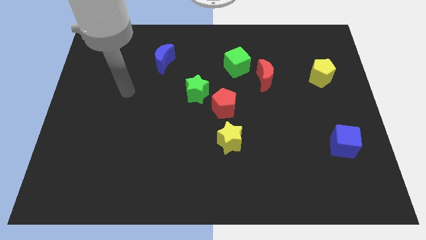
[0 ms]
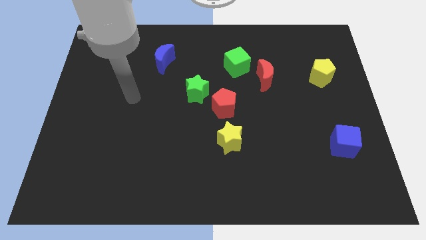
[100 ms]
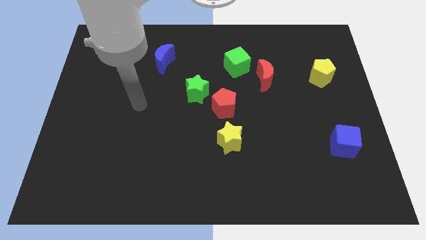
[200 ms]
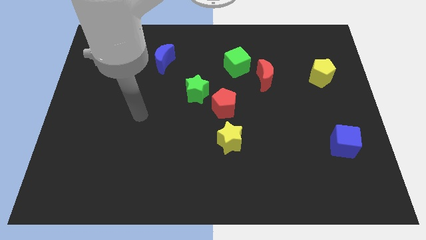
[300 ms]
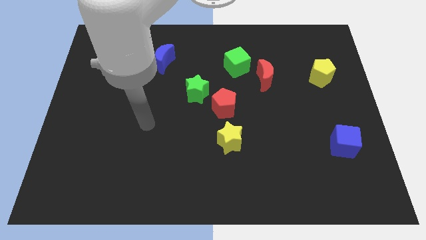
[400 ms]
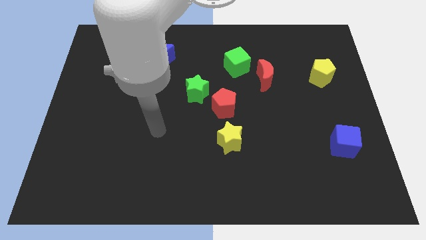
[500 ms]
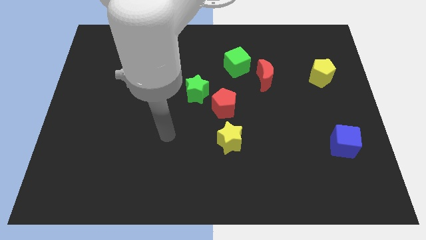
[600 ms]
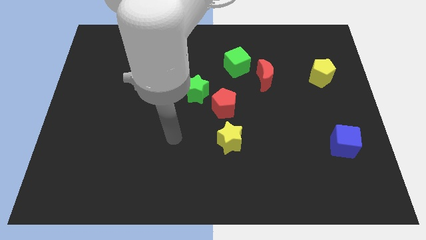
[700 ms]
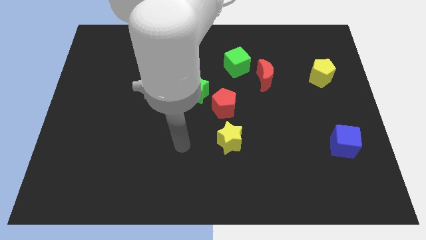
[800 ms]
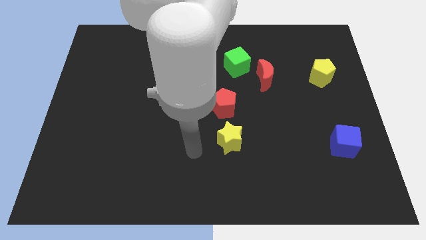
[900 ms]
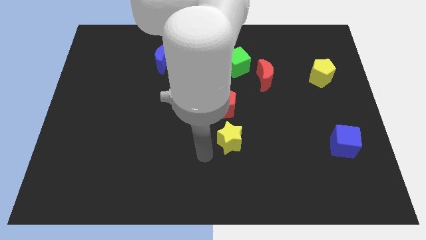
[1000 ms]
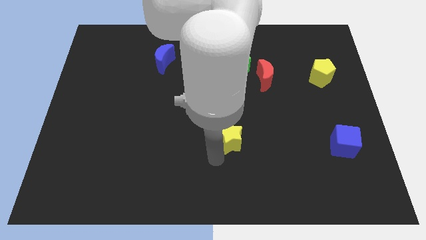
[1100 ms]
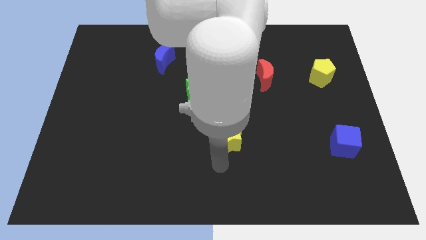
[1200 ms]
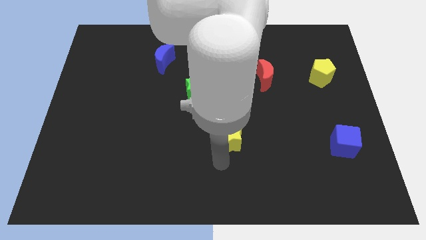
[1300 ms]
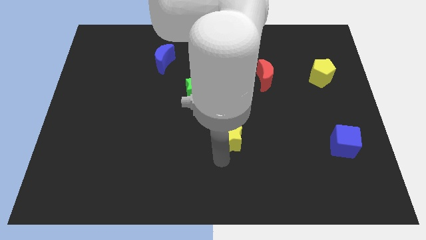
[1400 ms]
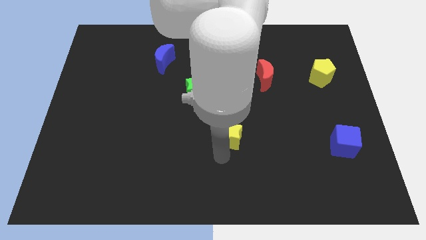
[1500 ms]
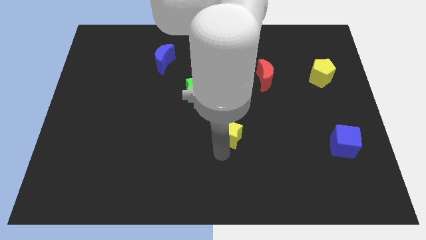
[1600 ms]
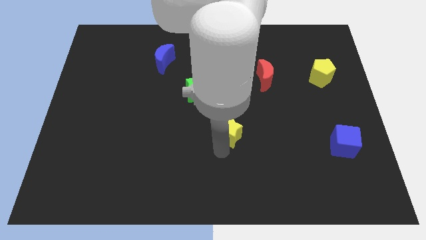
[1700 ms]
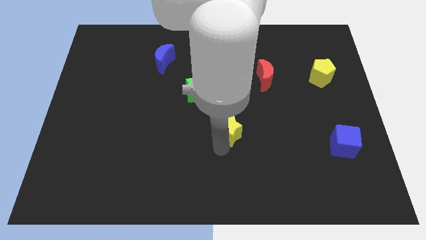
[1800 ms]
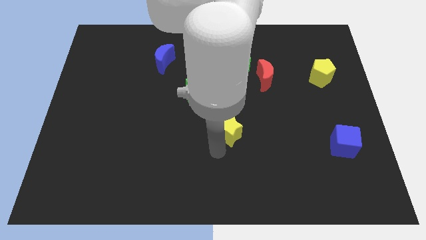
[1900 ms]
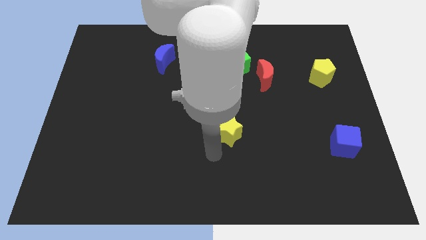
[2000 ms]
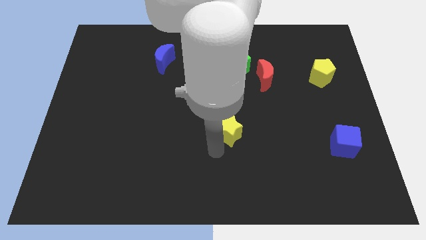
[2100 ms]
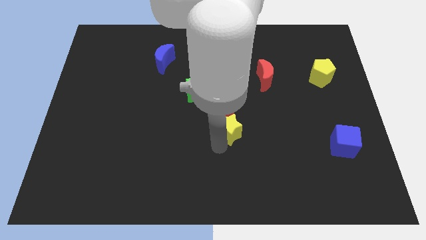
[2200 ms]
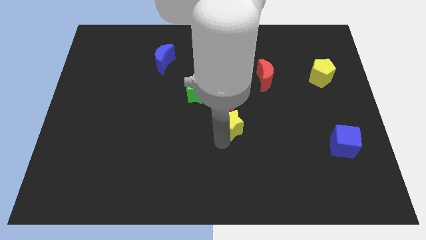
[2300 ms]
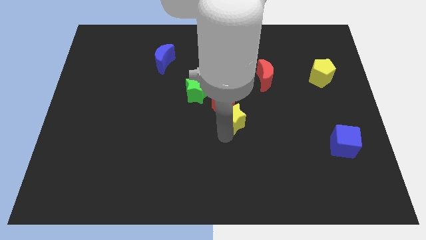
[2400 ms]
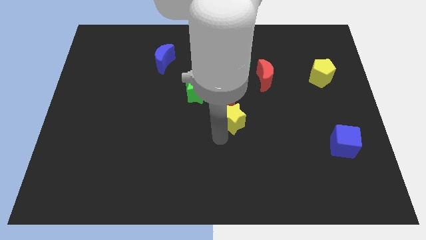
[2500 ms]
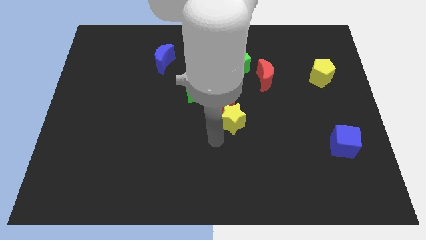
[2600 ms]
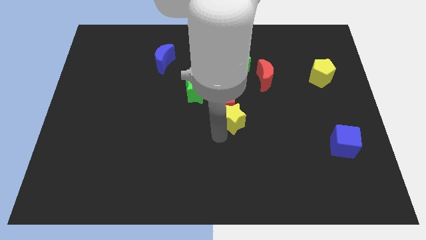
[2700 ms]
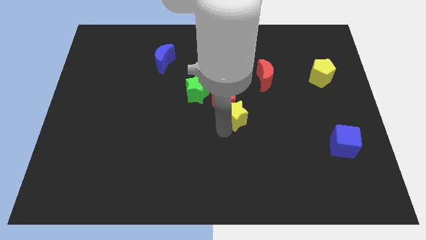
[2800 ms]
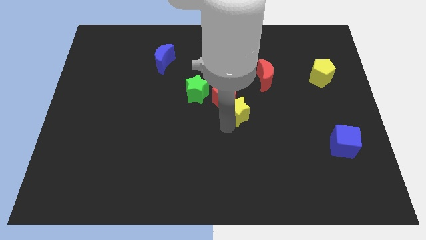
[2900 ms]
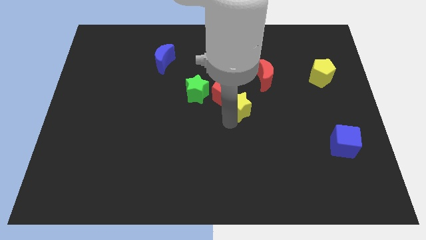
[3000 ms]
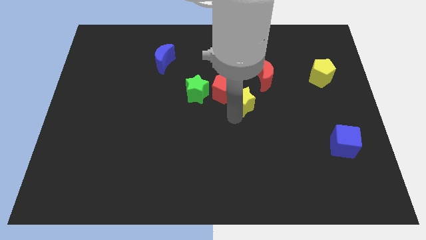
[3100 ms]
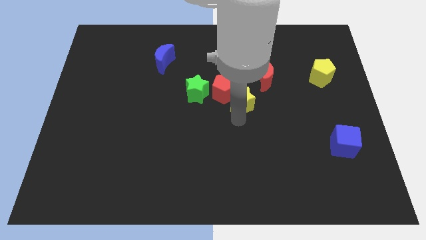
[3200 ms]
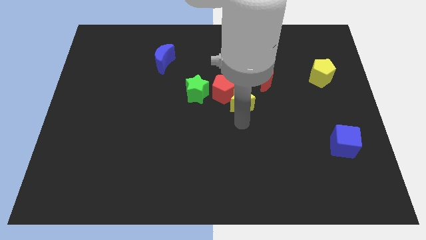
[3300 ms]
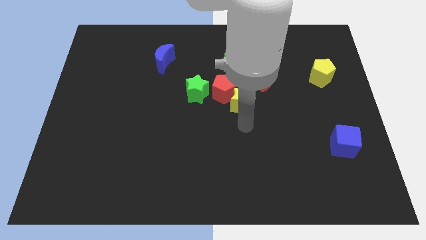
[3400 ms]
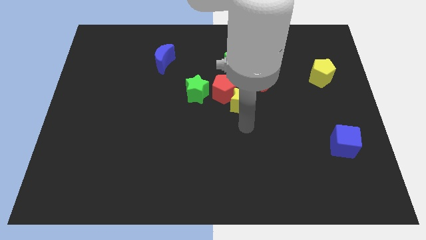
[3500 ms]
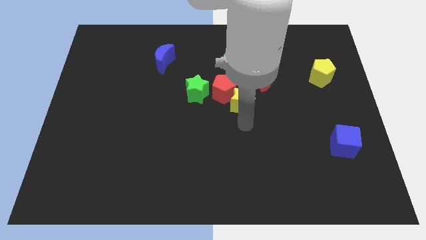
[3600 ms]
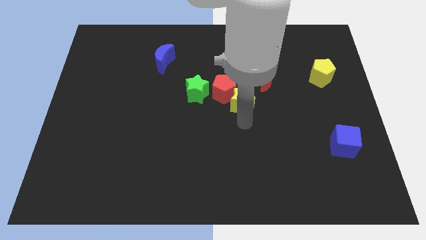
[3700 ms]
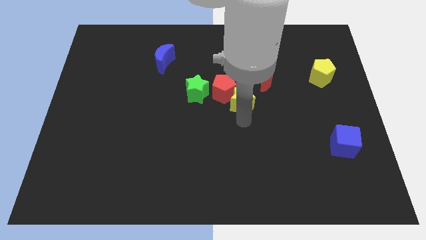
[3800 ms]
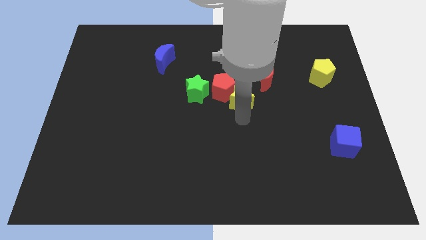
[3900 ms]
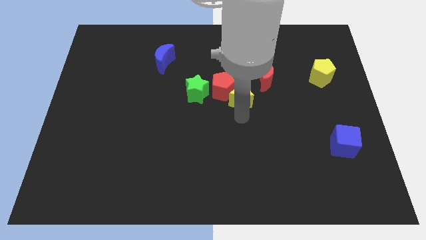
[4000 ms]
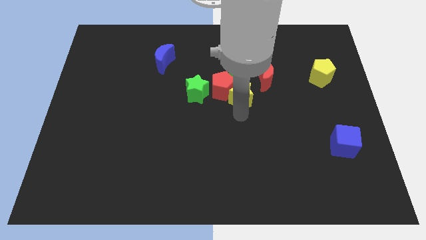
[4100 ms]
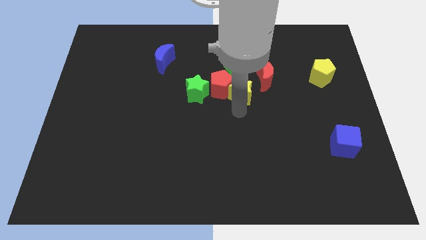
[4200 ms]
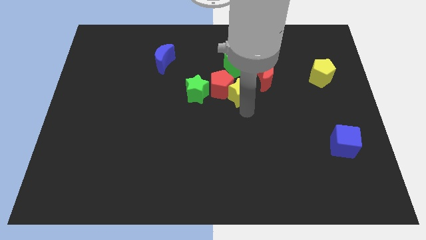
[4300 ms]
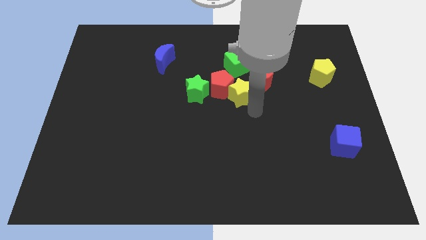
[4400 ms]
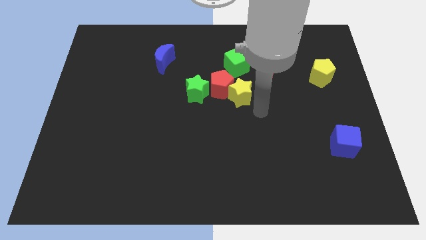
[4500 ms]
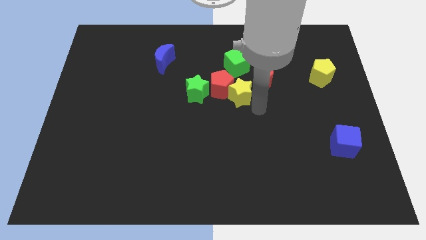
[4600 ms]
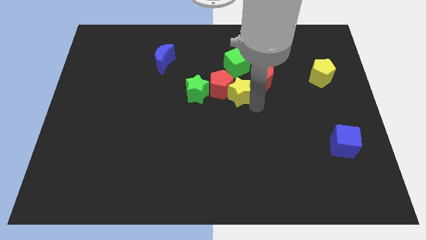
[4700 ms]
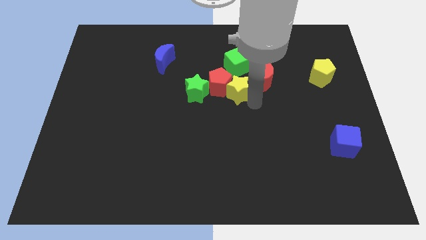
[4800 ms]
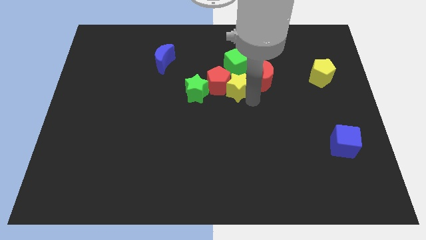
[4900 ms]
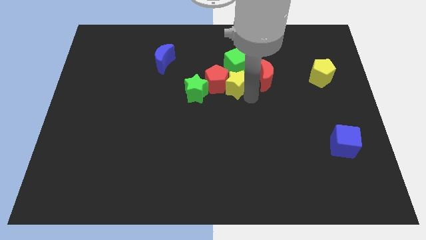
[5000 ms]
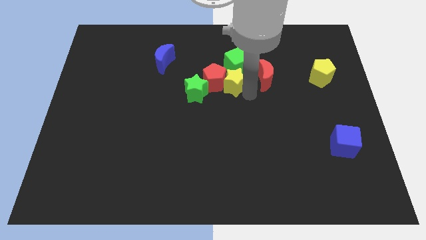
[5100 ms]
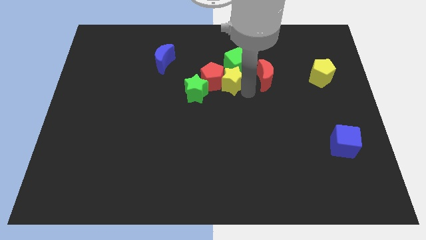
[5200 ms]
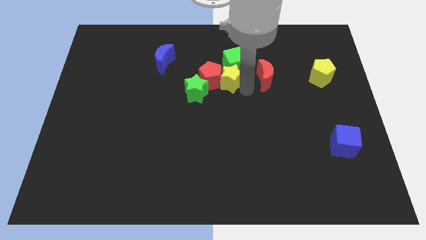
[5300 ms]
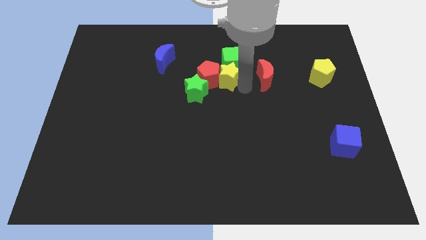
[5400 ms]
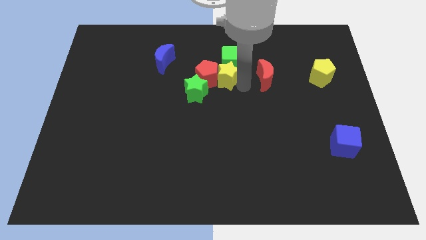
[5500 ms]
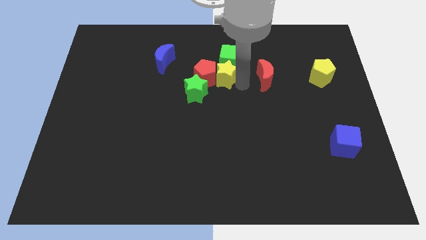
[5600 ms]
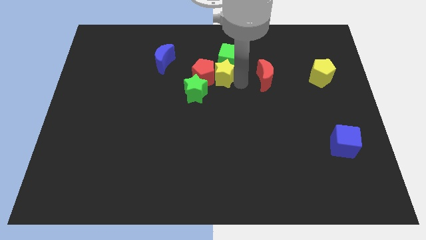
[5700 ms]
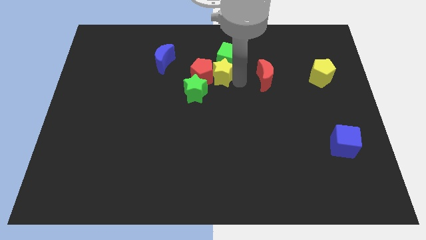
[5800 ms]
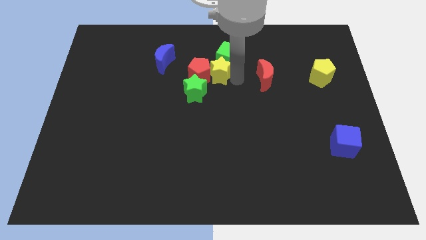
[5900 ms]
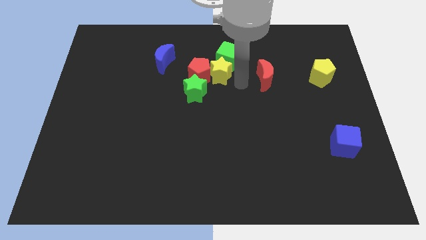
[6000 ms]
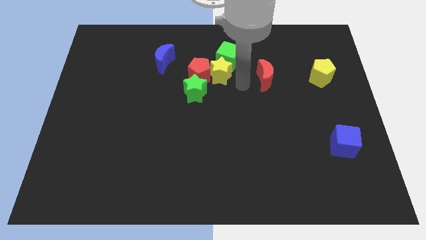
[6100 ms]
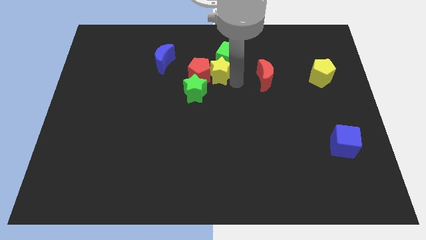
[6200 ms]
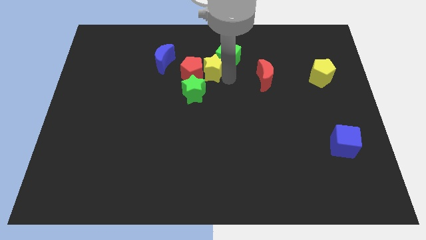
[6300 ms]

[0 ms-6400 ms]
put the yellow star to the left of the green cube
